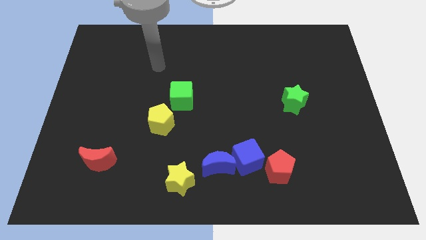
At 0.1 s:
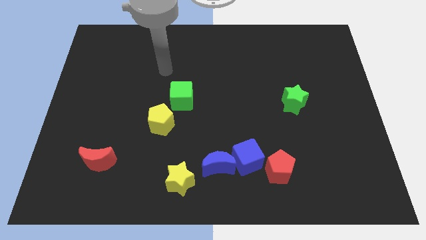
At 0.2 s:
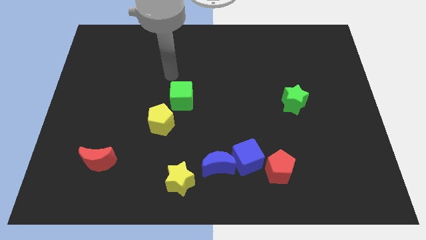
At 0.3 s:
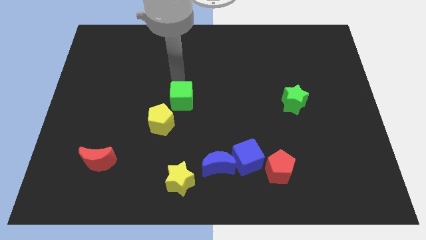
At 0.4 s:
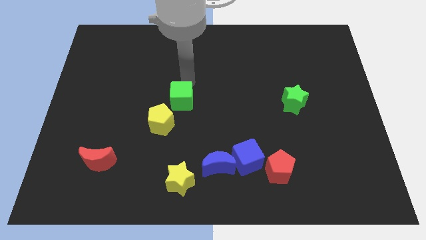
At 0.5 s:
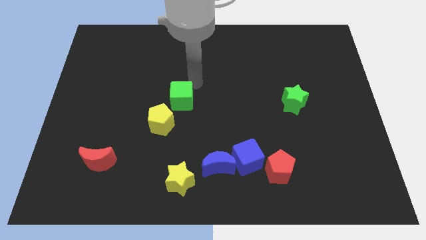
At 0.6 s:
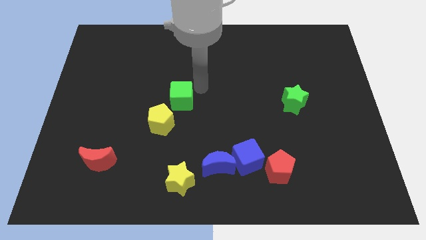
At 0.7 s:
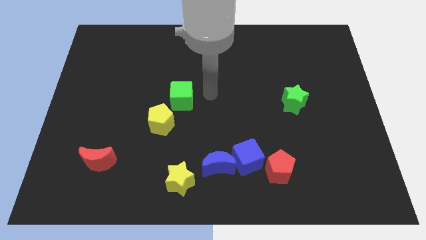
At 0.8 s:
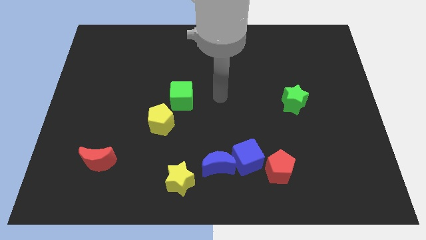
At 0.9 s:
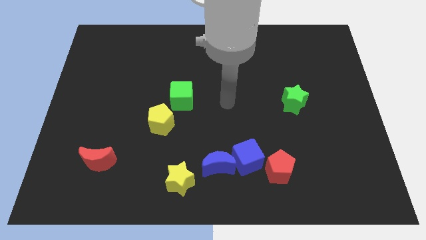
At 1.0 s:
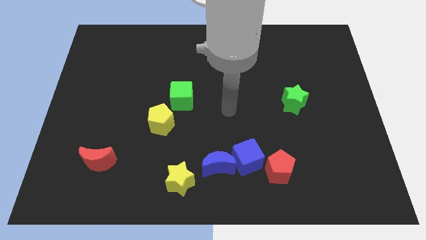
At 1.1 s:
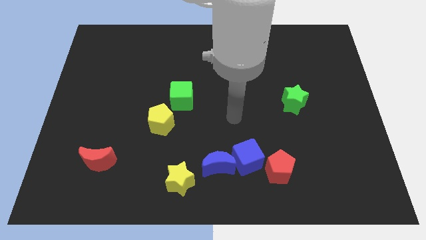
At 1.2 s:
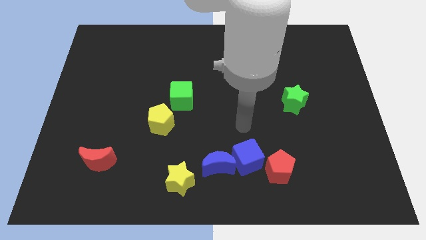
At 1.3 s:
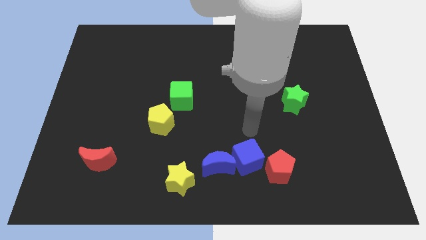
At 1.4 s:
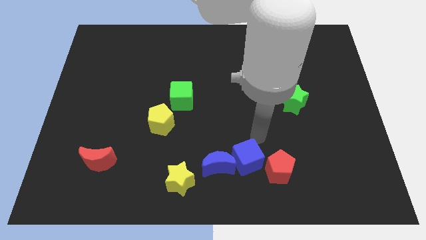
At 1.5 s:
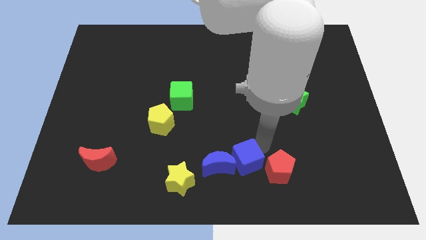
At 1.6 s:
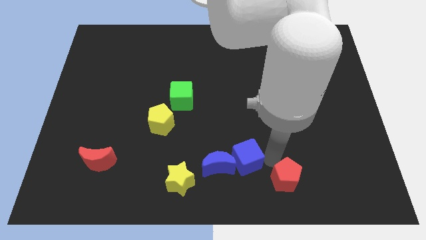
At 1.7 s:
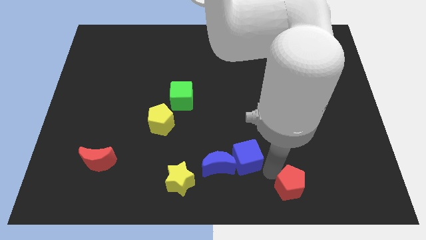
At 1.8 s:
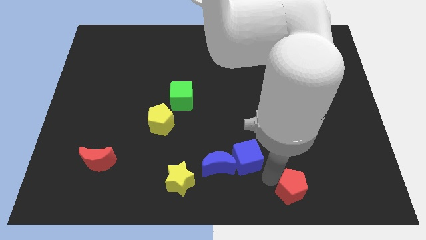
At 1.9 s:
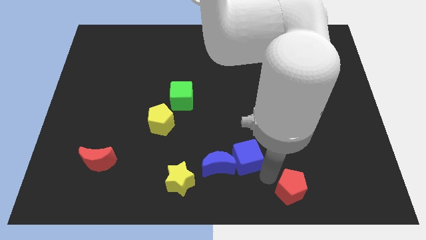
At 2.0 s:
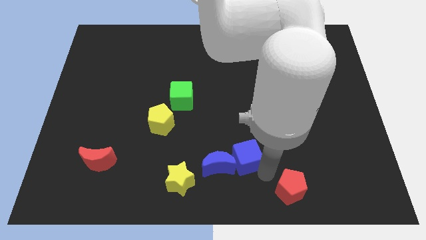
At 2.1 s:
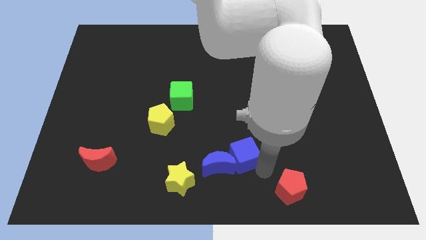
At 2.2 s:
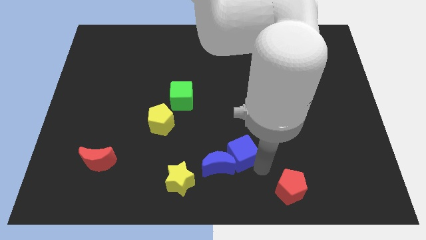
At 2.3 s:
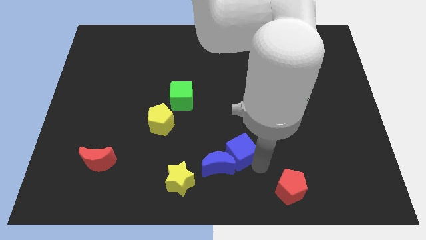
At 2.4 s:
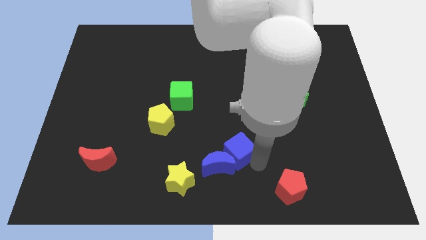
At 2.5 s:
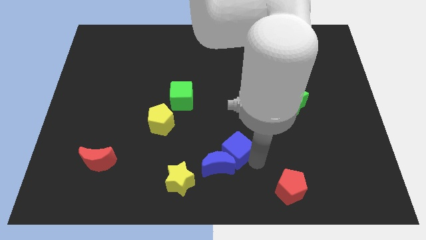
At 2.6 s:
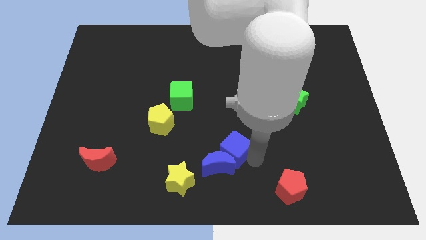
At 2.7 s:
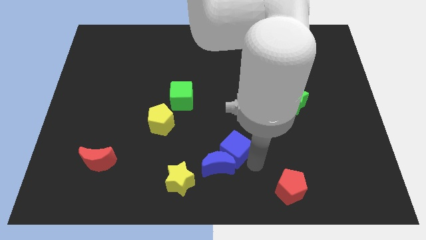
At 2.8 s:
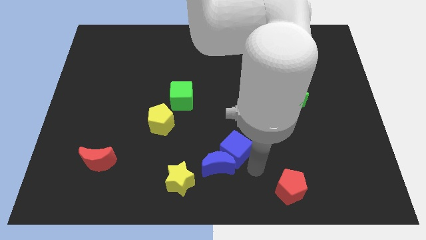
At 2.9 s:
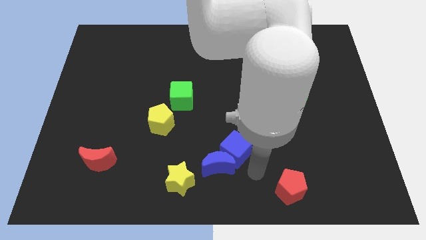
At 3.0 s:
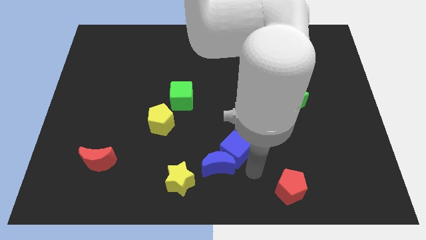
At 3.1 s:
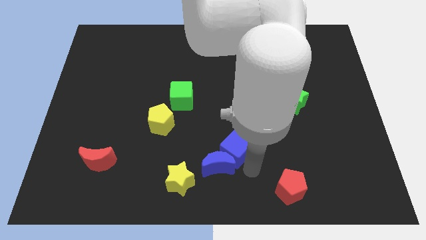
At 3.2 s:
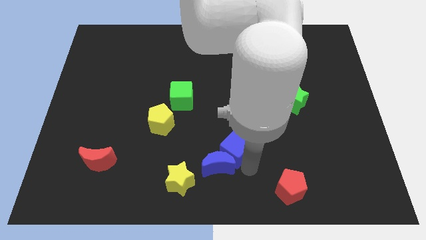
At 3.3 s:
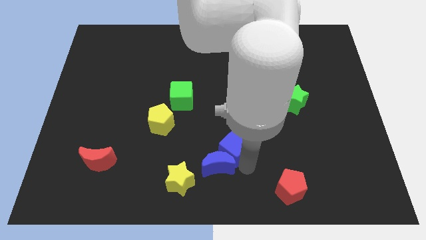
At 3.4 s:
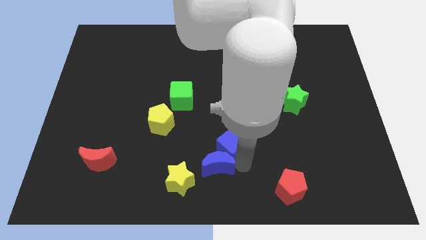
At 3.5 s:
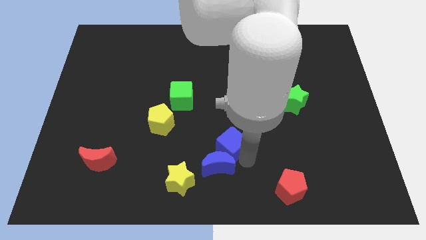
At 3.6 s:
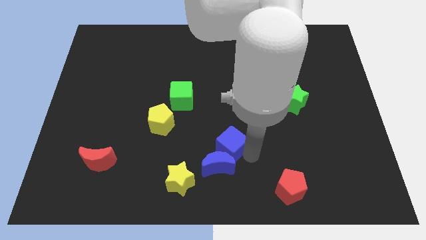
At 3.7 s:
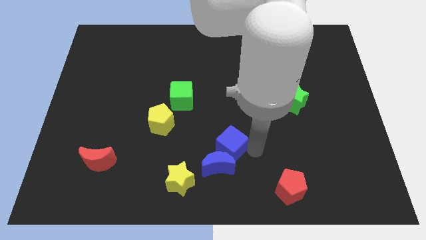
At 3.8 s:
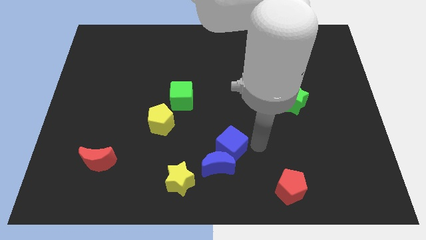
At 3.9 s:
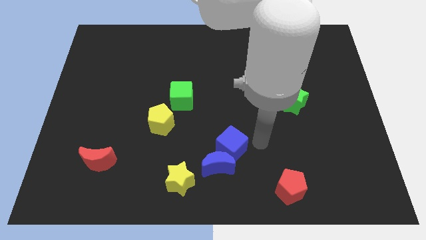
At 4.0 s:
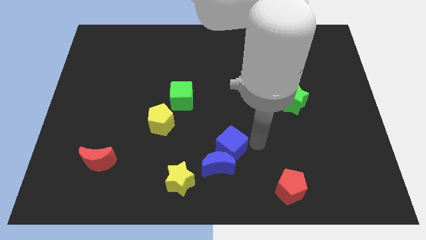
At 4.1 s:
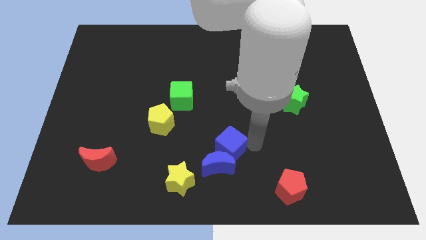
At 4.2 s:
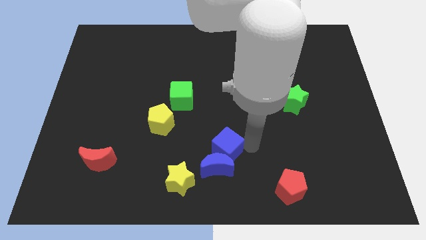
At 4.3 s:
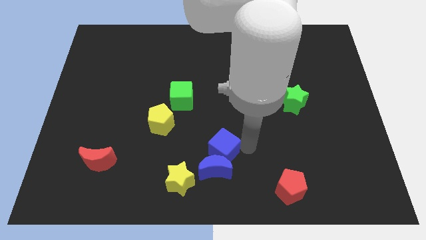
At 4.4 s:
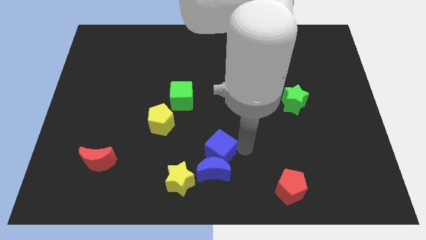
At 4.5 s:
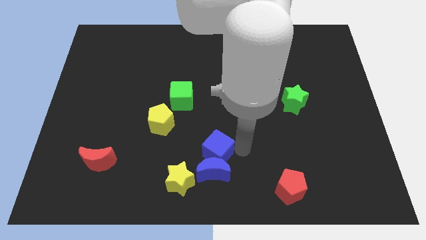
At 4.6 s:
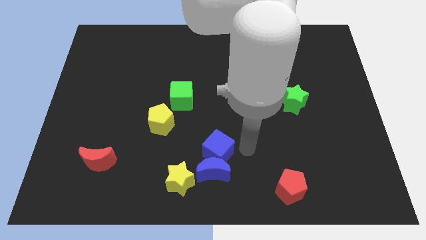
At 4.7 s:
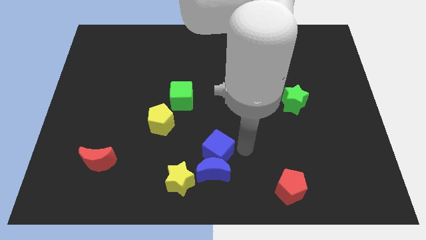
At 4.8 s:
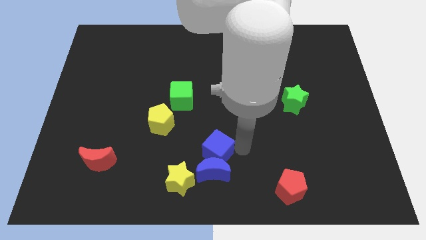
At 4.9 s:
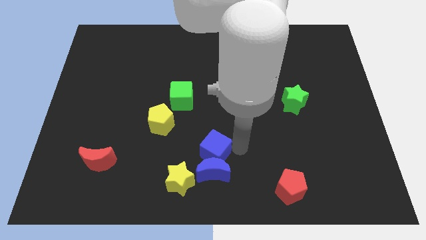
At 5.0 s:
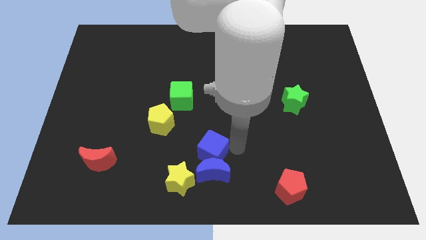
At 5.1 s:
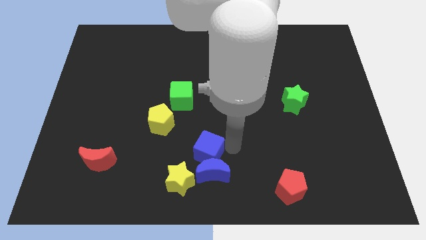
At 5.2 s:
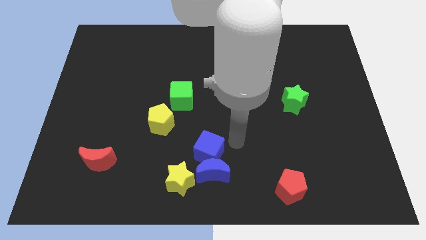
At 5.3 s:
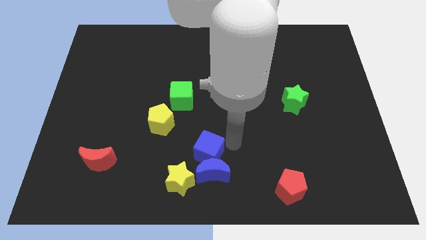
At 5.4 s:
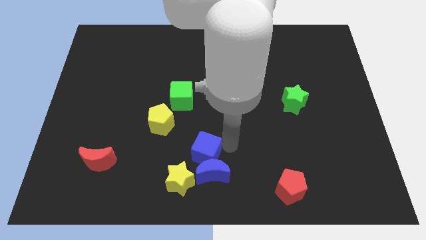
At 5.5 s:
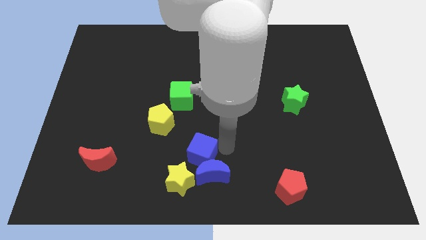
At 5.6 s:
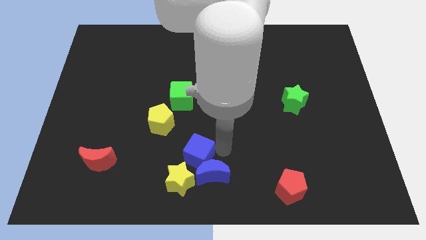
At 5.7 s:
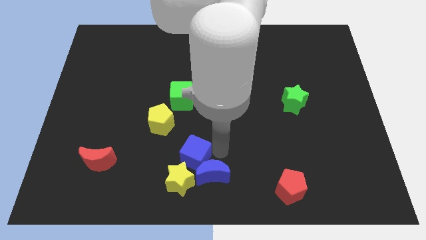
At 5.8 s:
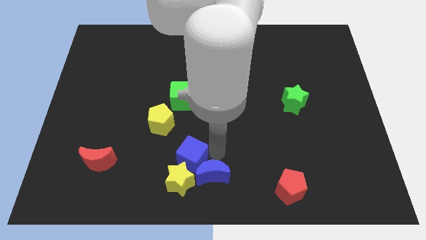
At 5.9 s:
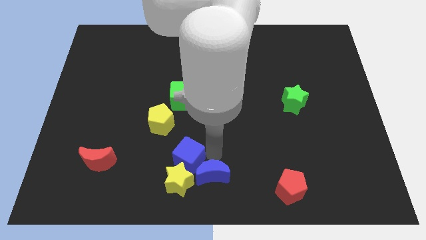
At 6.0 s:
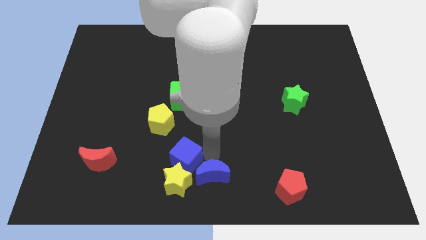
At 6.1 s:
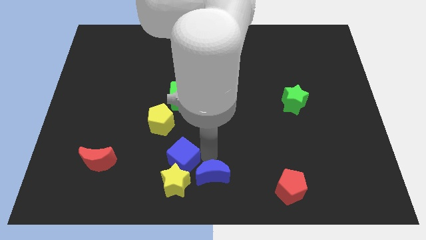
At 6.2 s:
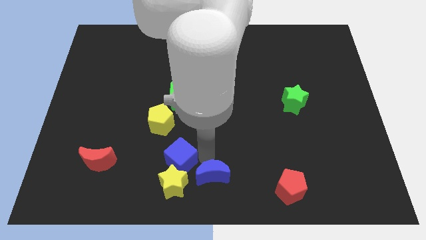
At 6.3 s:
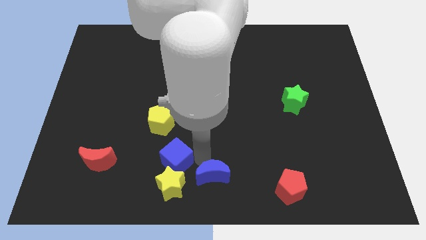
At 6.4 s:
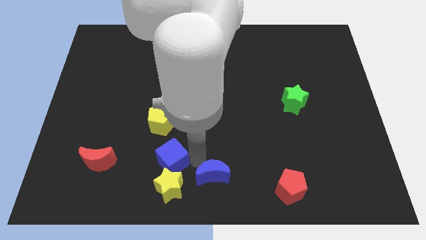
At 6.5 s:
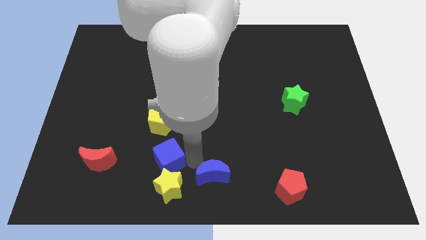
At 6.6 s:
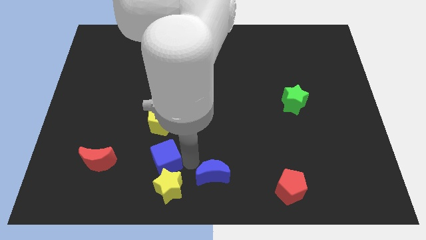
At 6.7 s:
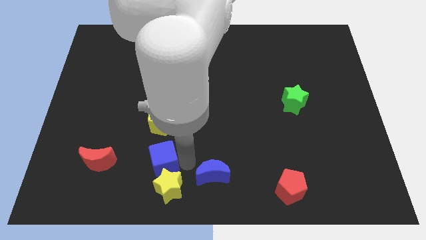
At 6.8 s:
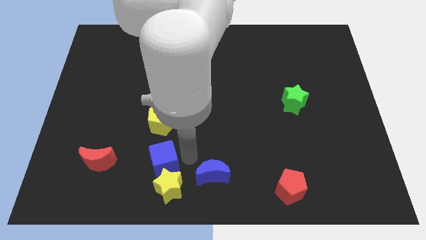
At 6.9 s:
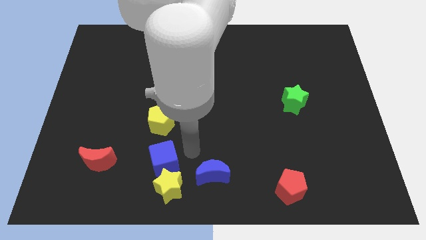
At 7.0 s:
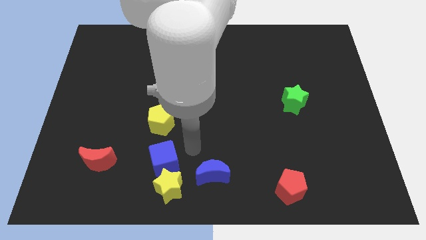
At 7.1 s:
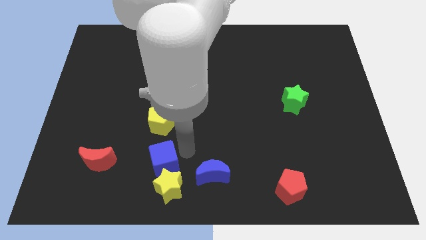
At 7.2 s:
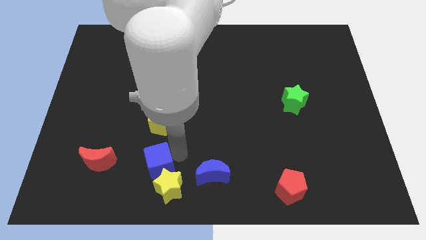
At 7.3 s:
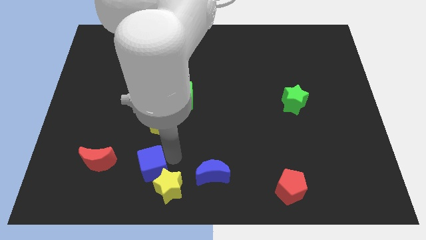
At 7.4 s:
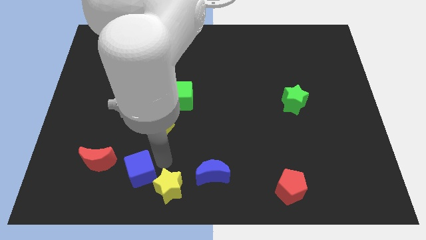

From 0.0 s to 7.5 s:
push the blue cube diagonally down and to the right of the red moon
